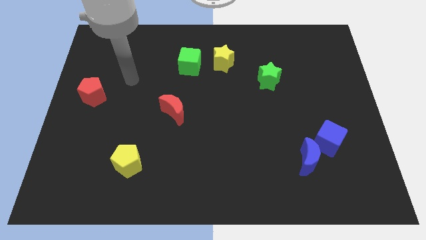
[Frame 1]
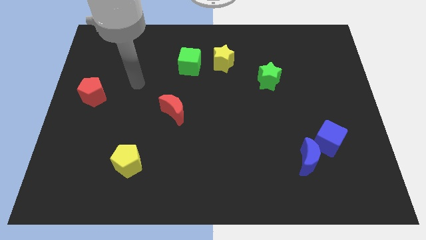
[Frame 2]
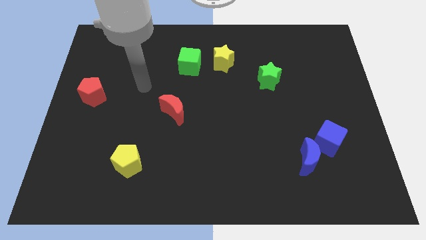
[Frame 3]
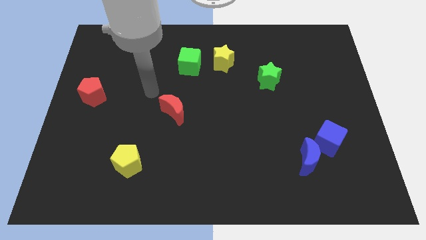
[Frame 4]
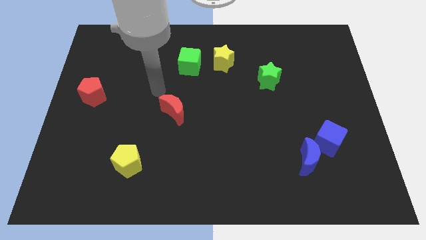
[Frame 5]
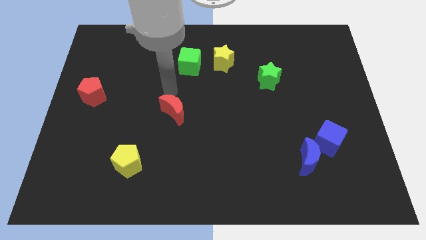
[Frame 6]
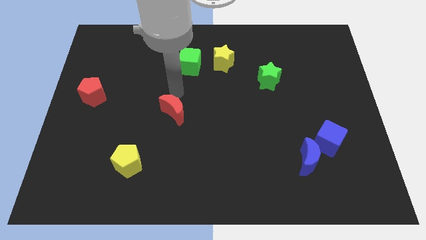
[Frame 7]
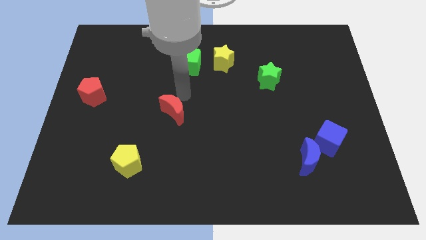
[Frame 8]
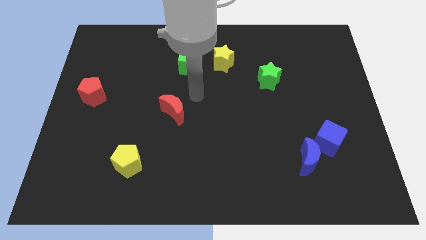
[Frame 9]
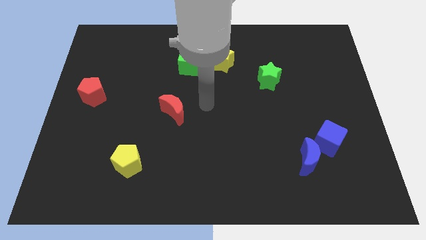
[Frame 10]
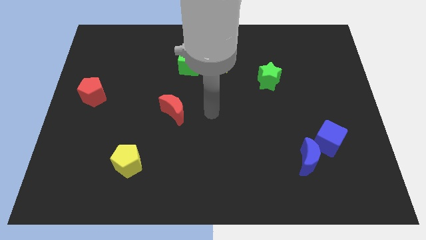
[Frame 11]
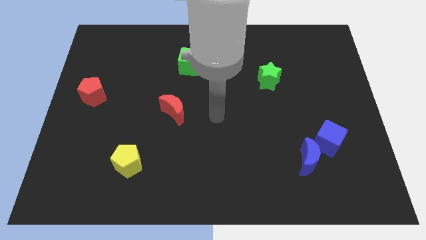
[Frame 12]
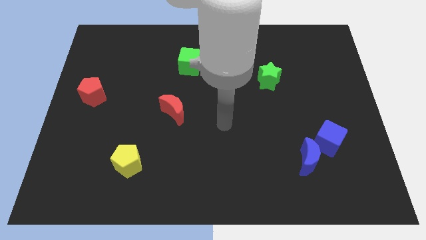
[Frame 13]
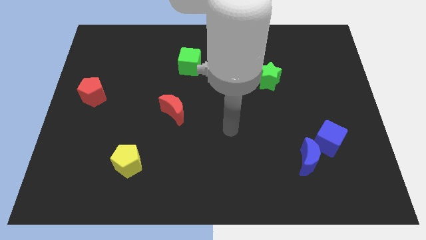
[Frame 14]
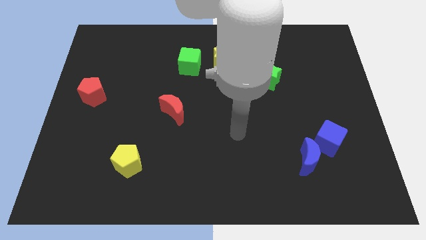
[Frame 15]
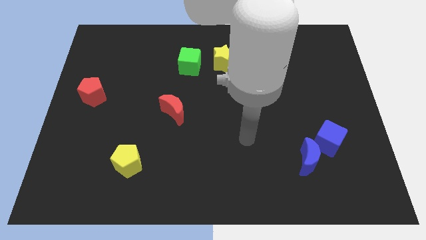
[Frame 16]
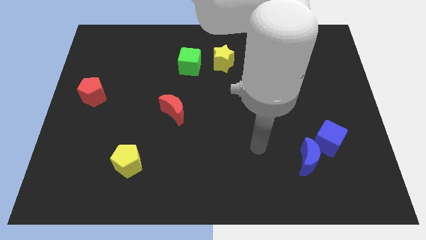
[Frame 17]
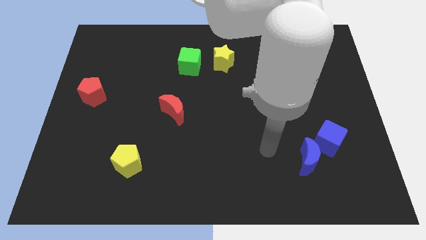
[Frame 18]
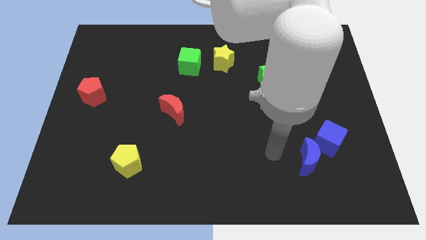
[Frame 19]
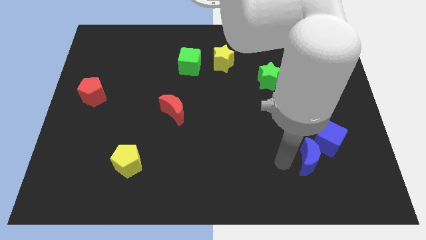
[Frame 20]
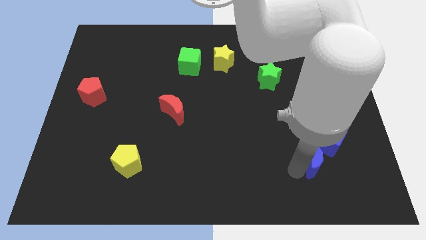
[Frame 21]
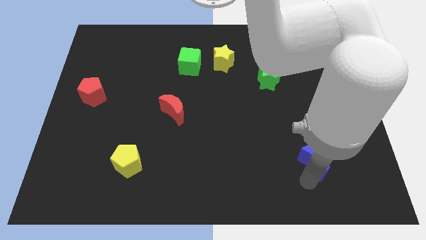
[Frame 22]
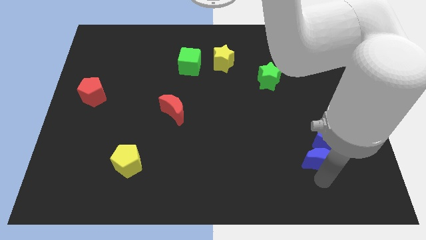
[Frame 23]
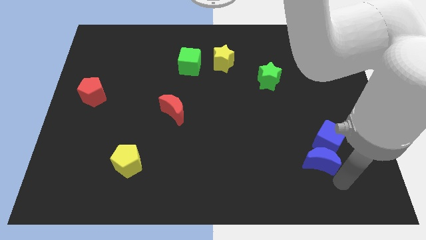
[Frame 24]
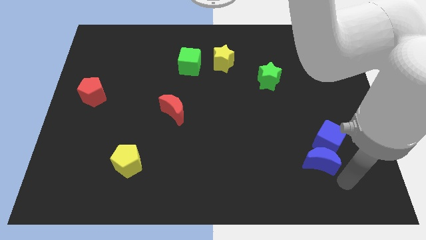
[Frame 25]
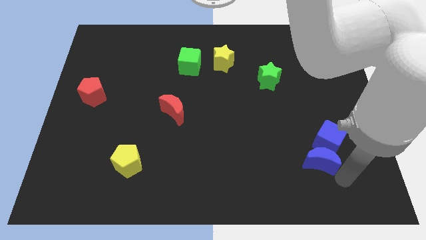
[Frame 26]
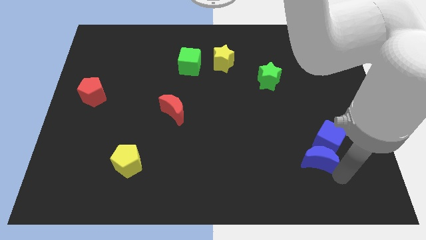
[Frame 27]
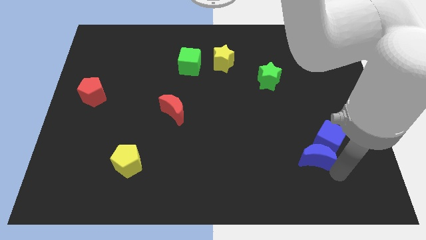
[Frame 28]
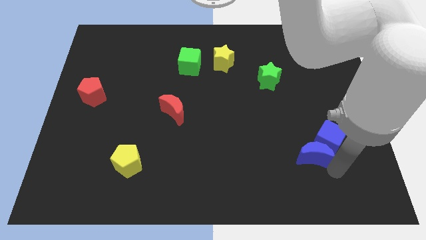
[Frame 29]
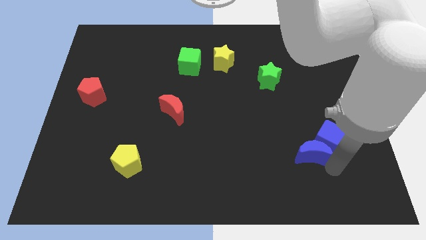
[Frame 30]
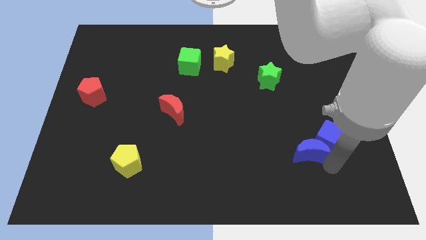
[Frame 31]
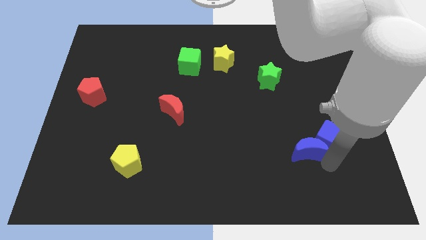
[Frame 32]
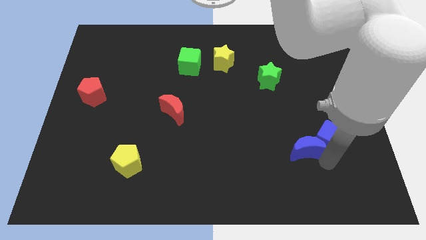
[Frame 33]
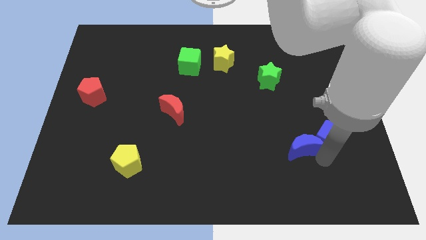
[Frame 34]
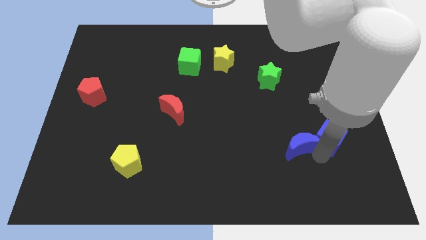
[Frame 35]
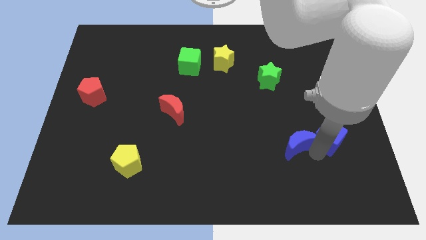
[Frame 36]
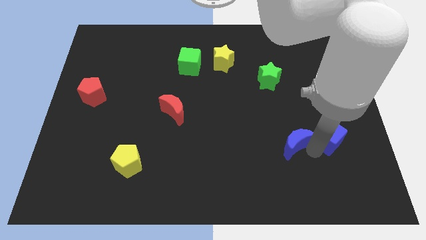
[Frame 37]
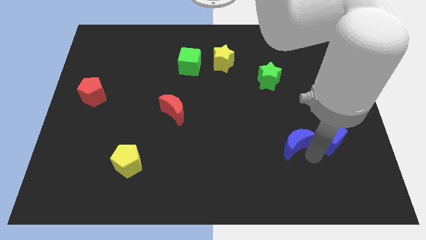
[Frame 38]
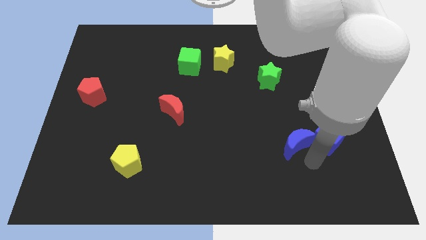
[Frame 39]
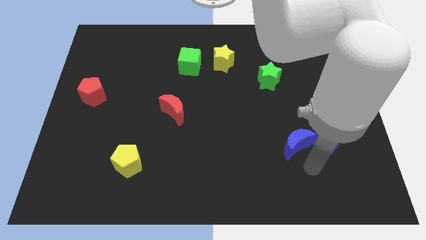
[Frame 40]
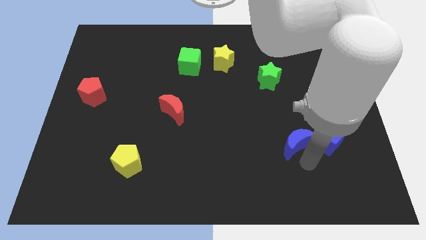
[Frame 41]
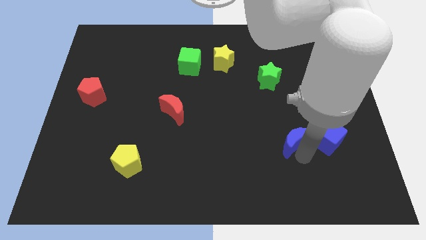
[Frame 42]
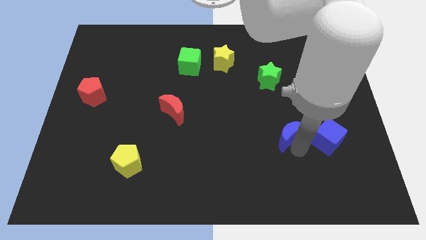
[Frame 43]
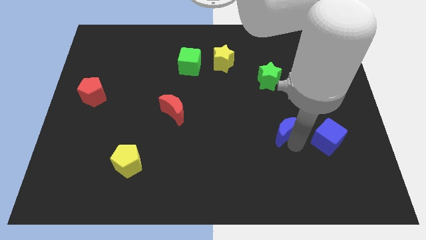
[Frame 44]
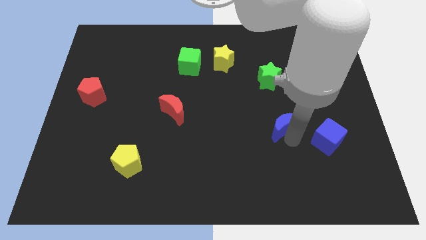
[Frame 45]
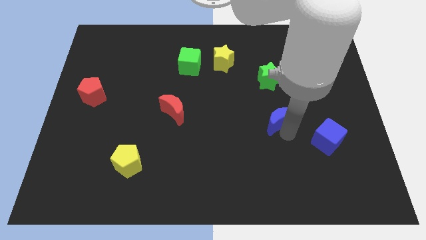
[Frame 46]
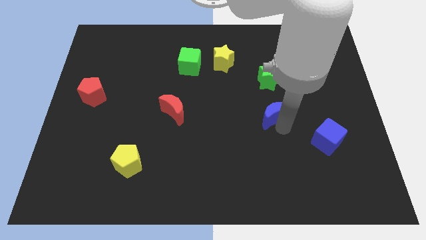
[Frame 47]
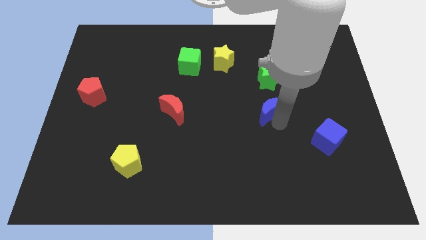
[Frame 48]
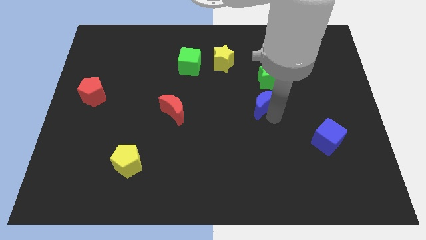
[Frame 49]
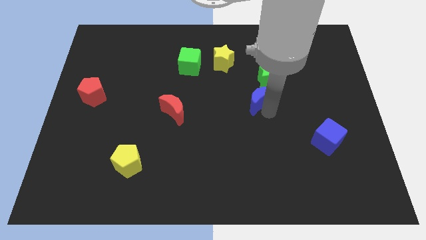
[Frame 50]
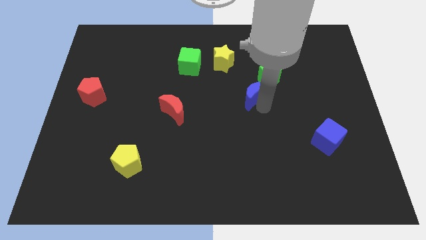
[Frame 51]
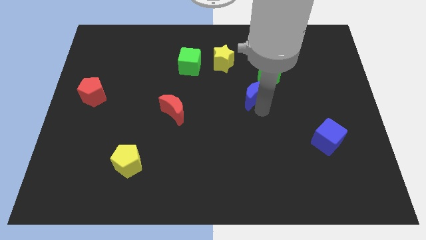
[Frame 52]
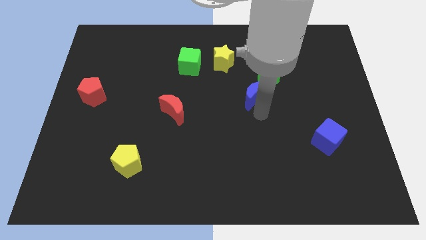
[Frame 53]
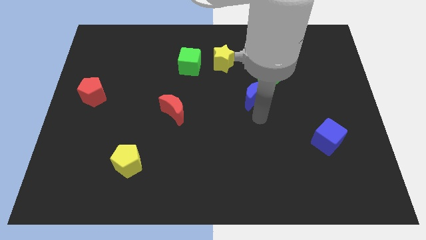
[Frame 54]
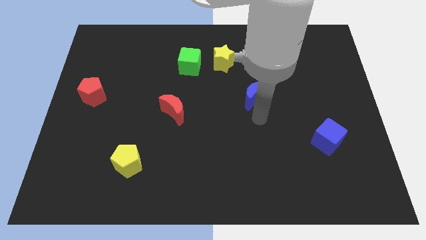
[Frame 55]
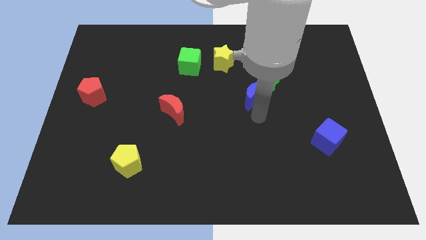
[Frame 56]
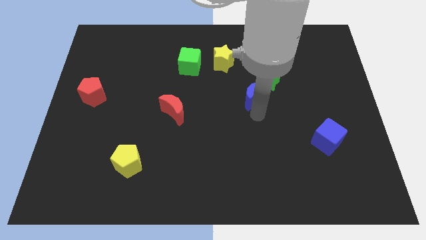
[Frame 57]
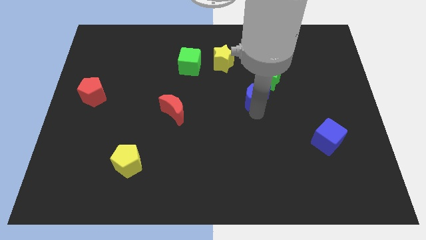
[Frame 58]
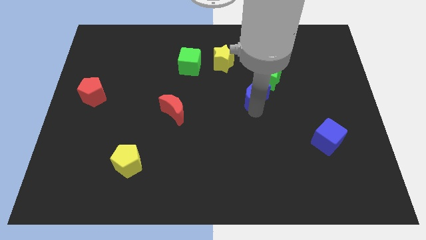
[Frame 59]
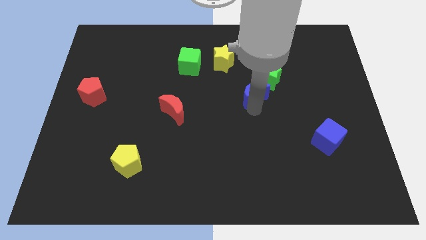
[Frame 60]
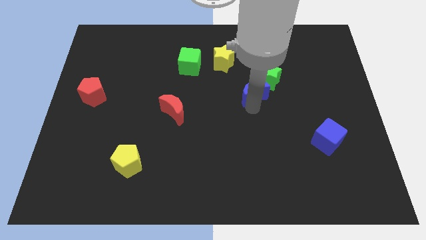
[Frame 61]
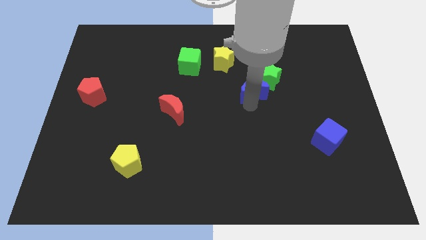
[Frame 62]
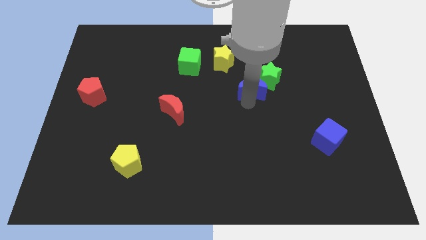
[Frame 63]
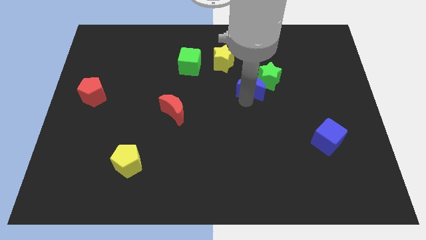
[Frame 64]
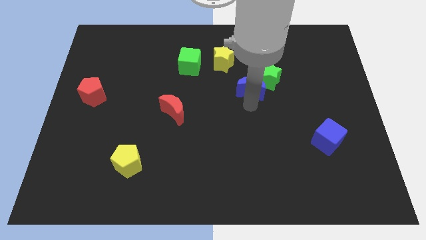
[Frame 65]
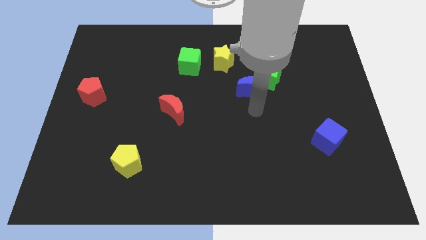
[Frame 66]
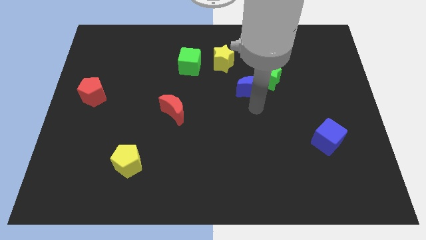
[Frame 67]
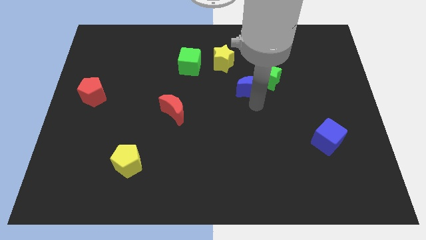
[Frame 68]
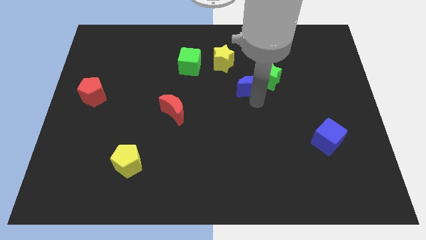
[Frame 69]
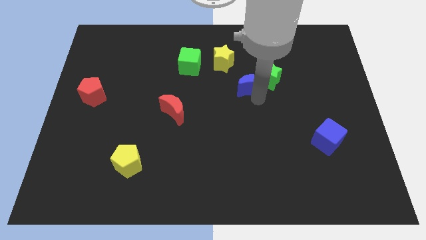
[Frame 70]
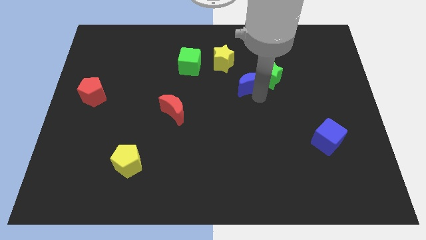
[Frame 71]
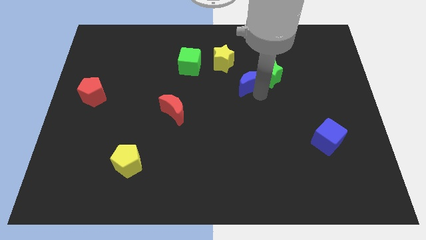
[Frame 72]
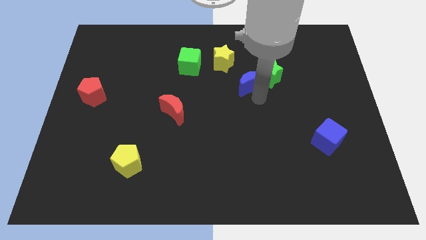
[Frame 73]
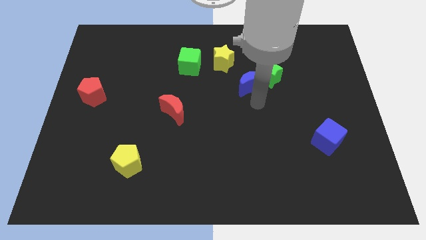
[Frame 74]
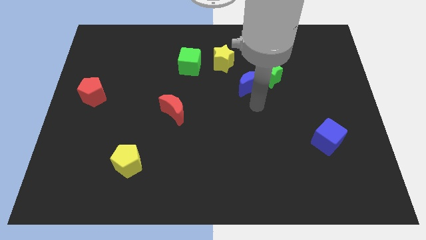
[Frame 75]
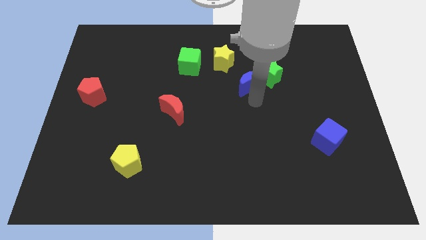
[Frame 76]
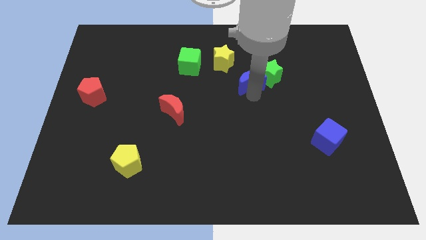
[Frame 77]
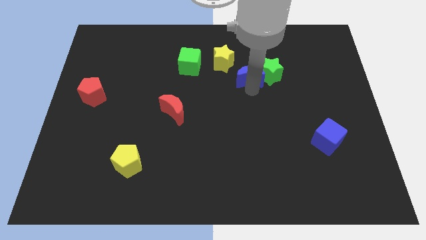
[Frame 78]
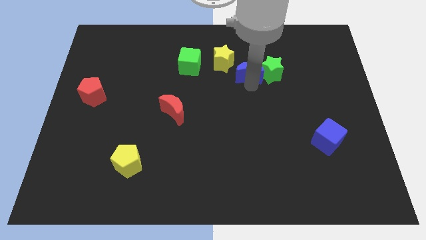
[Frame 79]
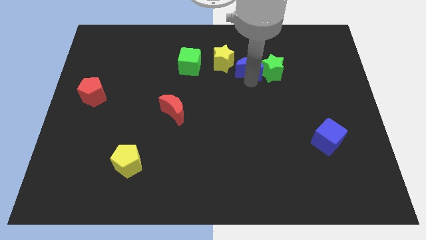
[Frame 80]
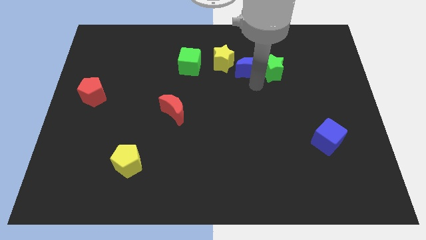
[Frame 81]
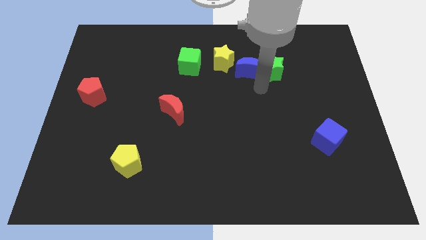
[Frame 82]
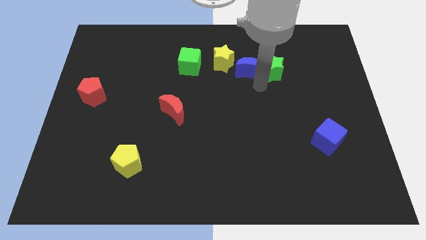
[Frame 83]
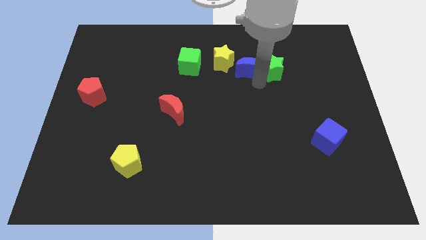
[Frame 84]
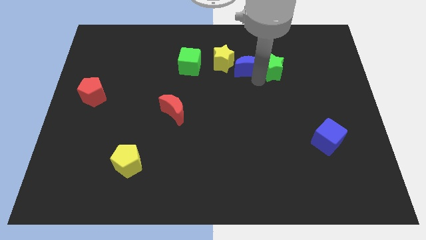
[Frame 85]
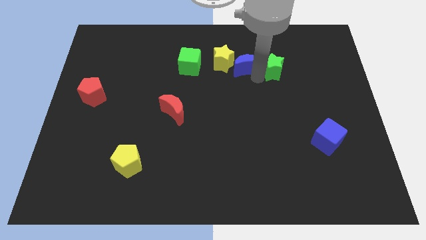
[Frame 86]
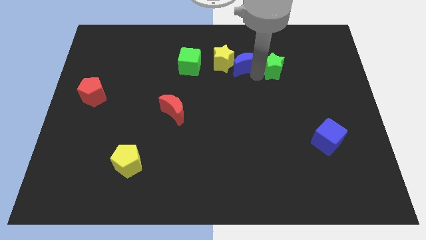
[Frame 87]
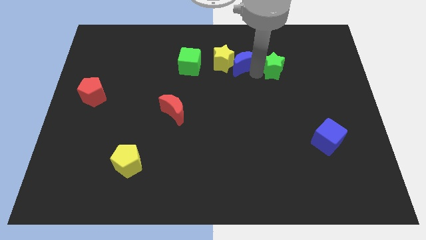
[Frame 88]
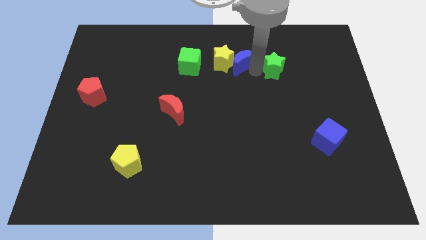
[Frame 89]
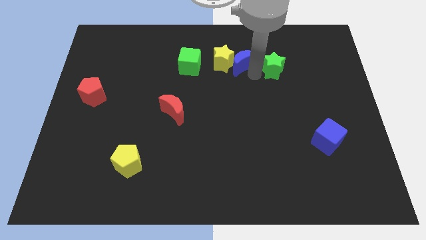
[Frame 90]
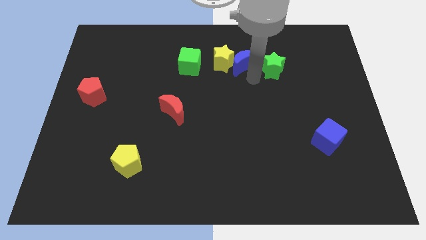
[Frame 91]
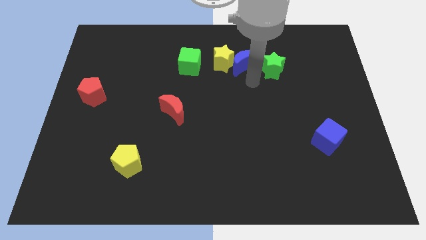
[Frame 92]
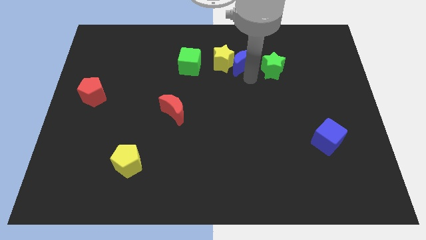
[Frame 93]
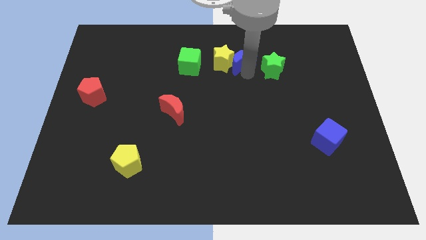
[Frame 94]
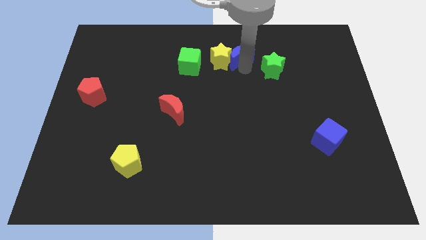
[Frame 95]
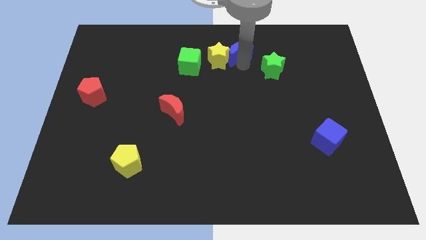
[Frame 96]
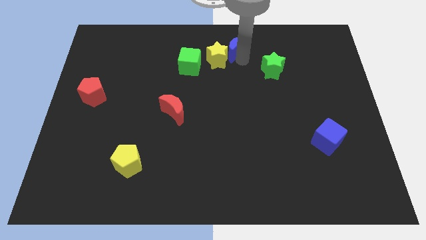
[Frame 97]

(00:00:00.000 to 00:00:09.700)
move the blue moon to the top side
